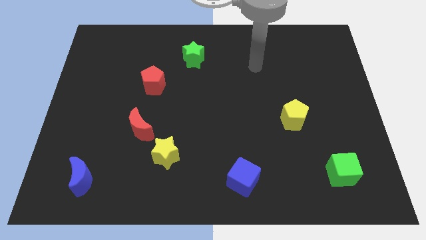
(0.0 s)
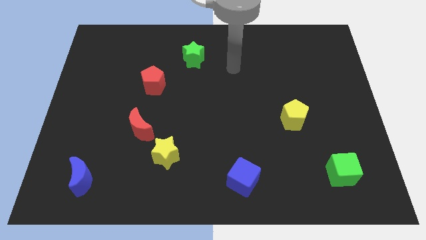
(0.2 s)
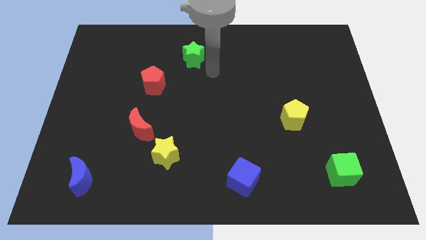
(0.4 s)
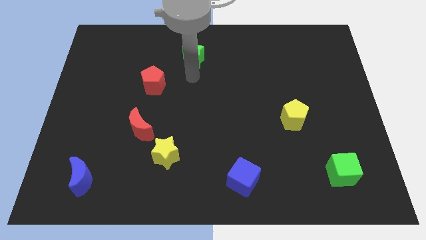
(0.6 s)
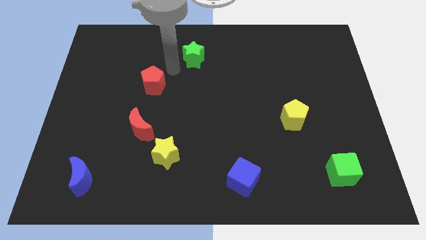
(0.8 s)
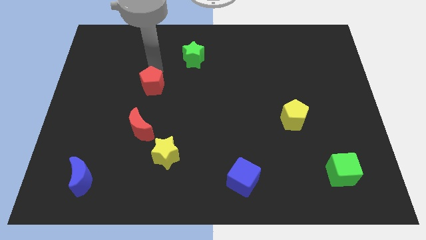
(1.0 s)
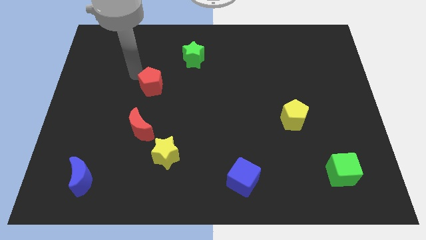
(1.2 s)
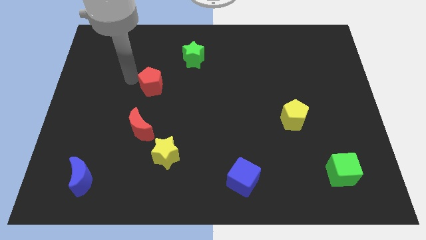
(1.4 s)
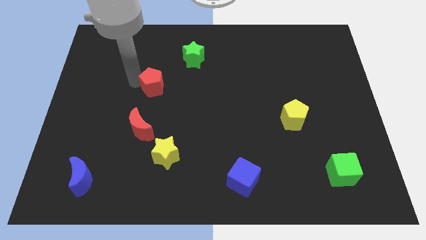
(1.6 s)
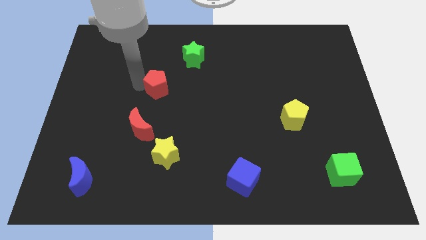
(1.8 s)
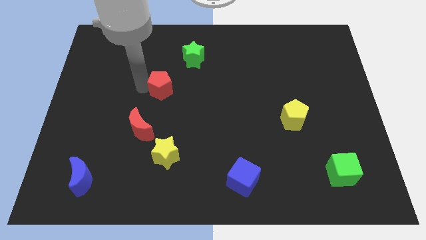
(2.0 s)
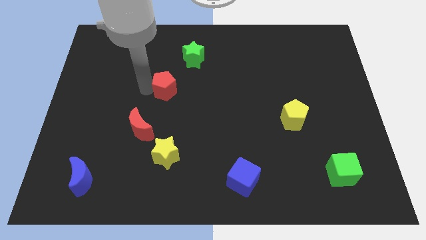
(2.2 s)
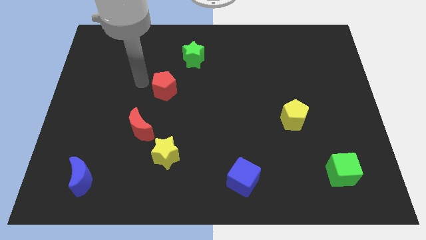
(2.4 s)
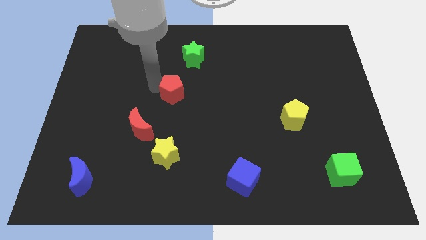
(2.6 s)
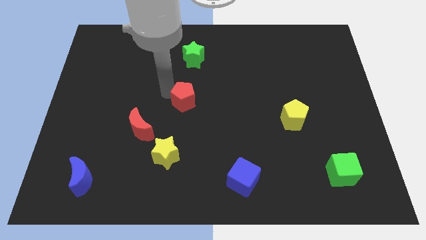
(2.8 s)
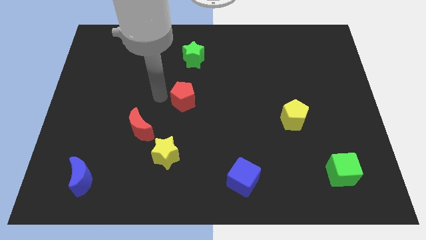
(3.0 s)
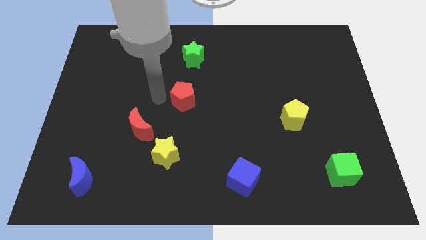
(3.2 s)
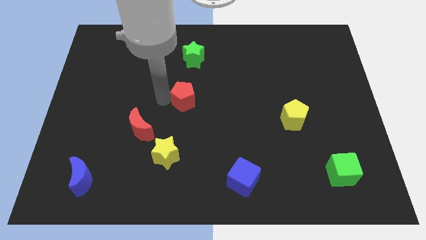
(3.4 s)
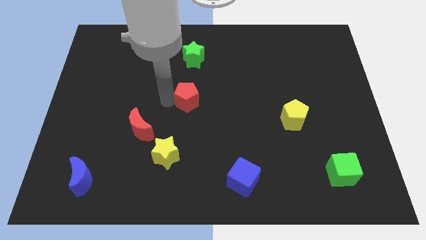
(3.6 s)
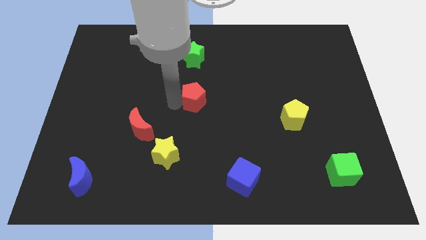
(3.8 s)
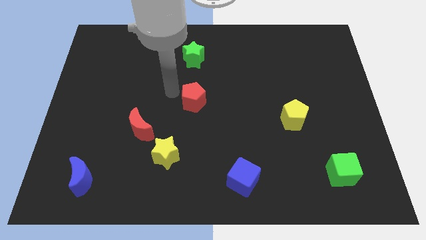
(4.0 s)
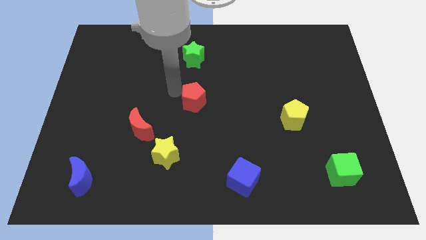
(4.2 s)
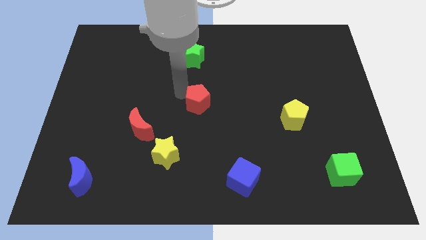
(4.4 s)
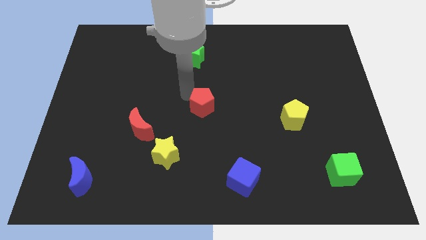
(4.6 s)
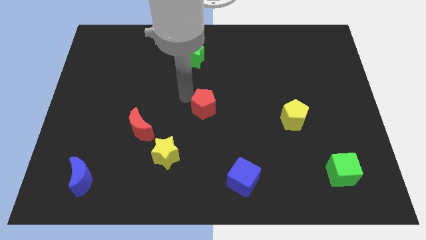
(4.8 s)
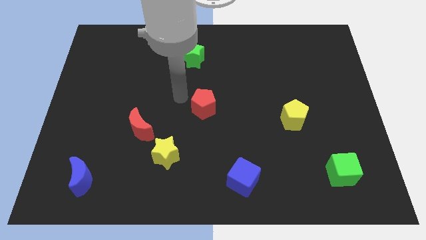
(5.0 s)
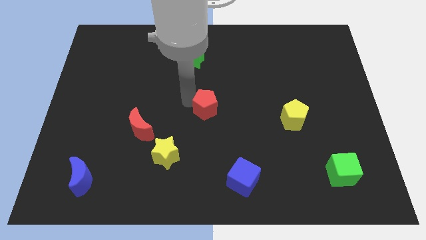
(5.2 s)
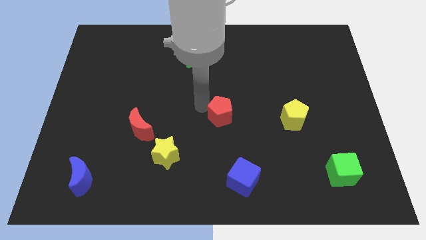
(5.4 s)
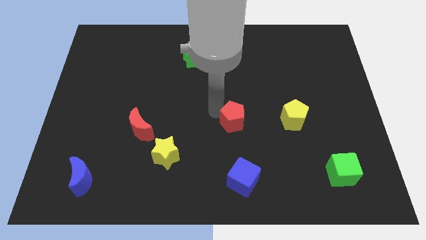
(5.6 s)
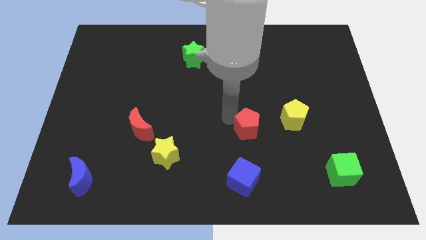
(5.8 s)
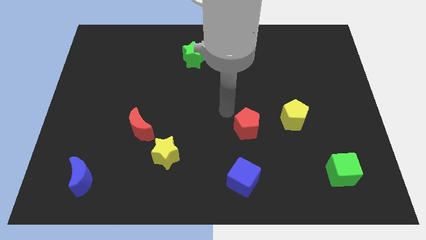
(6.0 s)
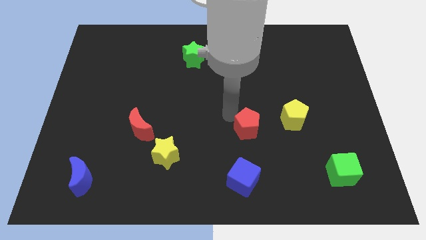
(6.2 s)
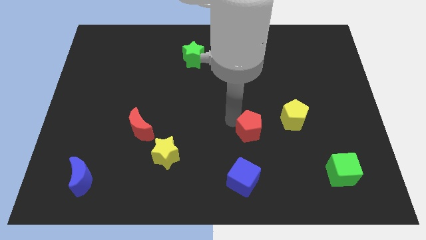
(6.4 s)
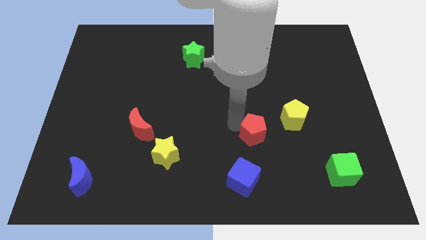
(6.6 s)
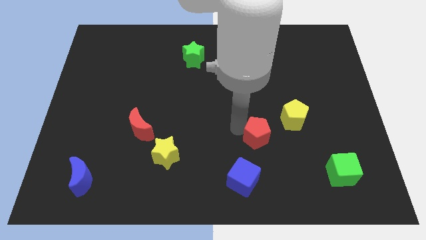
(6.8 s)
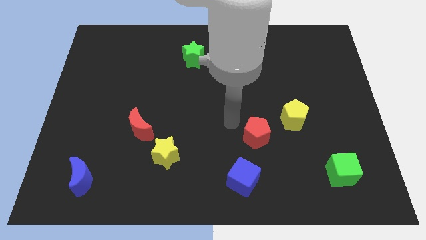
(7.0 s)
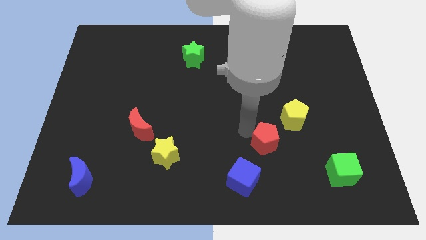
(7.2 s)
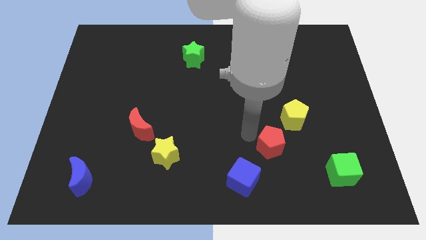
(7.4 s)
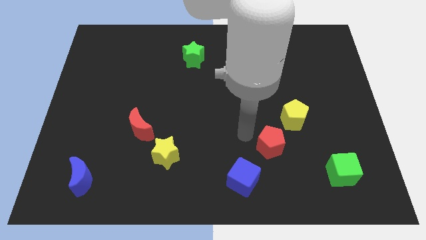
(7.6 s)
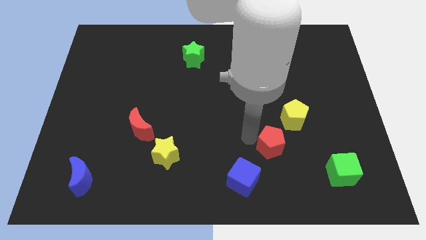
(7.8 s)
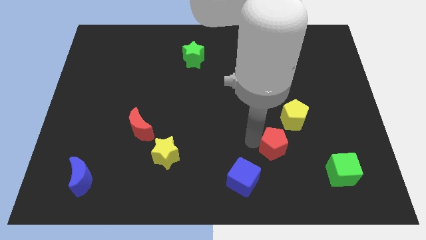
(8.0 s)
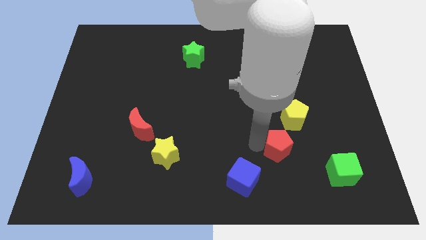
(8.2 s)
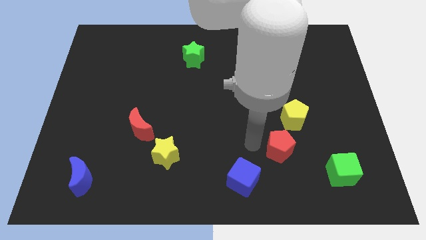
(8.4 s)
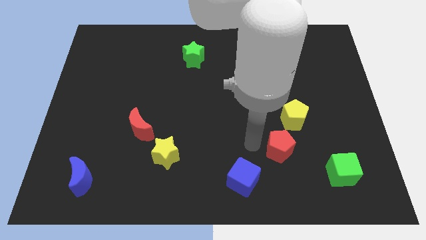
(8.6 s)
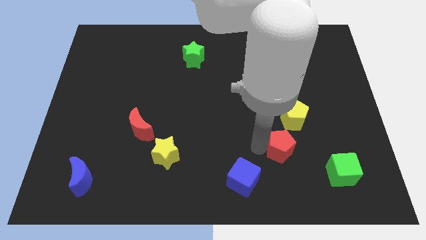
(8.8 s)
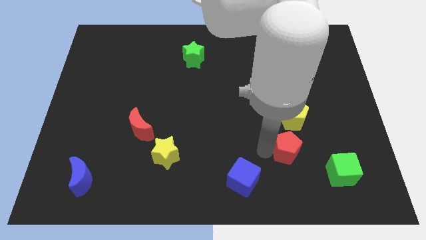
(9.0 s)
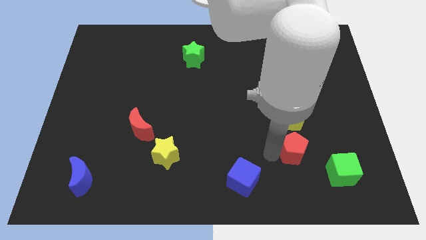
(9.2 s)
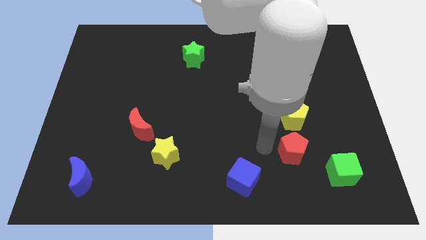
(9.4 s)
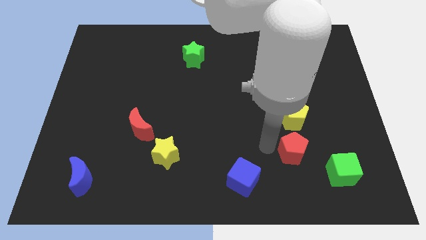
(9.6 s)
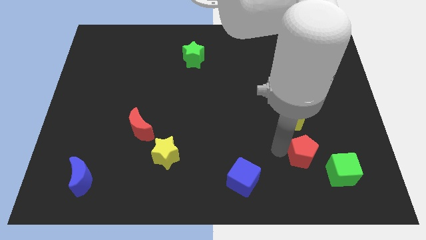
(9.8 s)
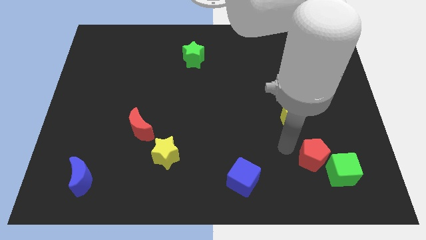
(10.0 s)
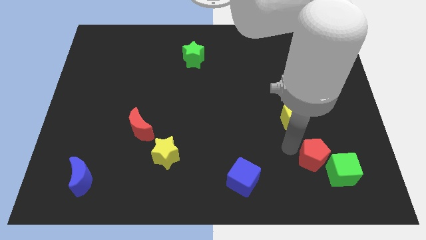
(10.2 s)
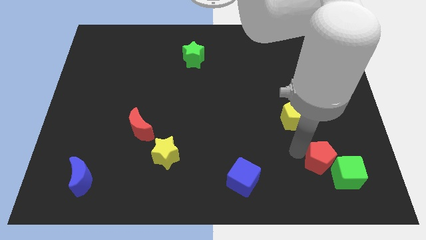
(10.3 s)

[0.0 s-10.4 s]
put the red pentagon to the green cube

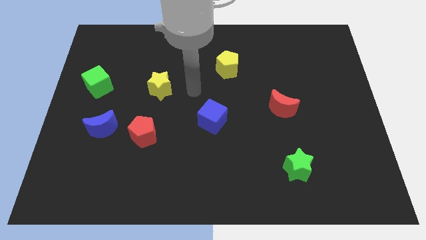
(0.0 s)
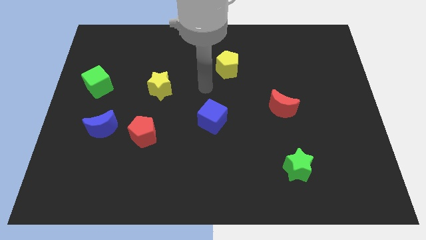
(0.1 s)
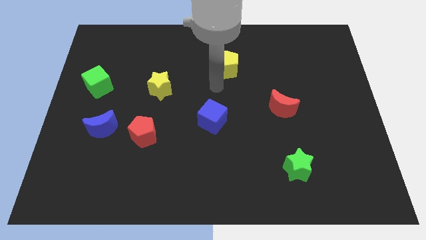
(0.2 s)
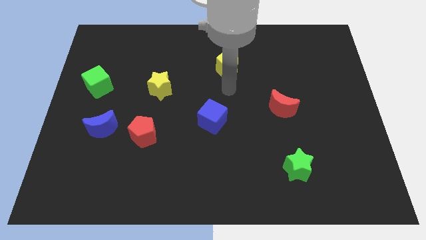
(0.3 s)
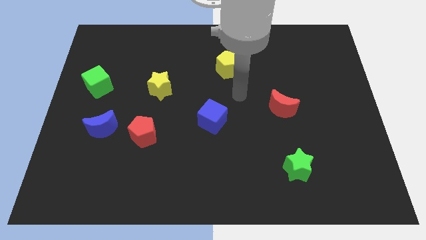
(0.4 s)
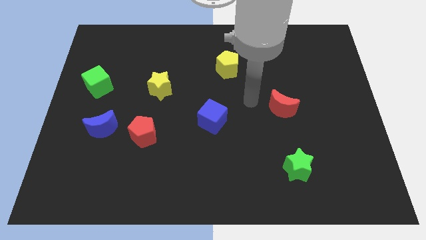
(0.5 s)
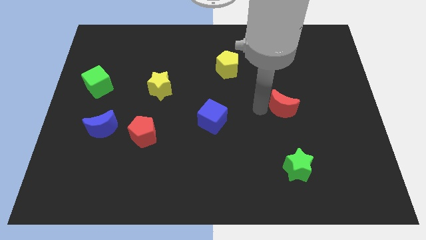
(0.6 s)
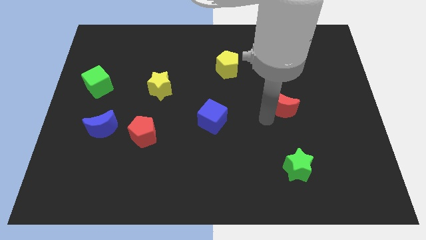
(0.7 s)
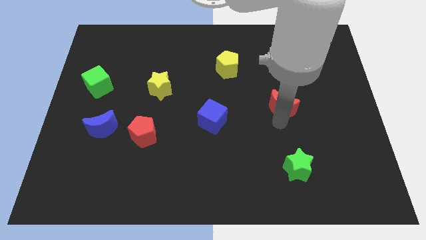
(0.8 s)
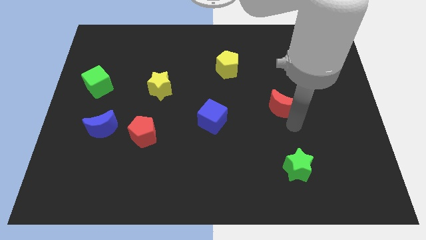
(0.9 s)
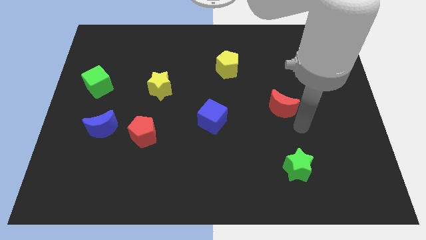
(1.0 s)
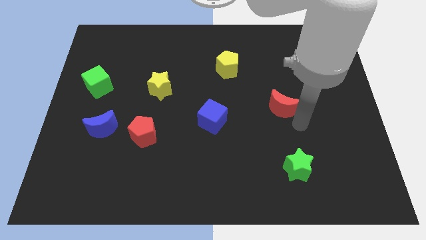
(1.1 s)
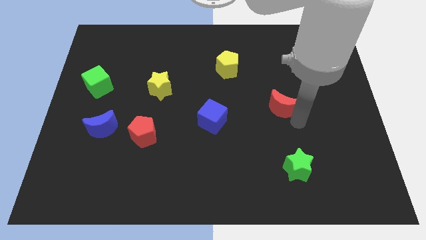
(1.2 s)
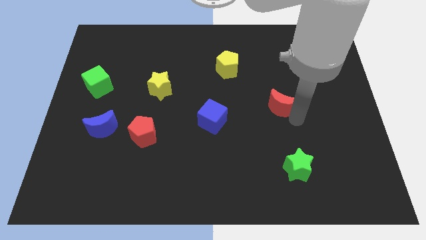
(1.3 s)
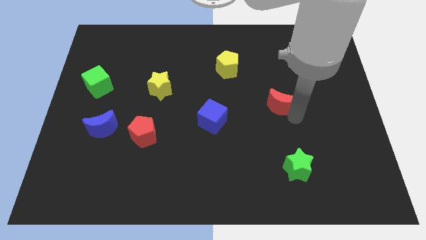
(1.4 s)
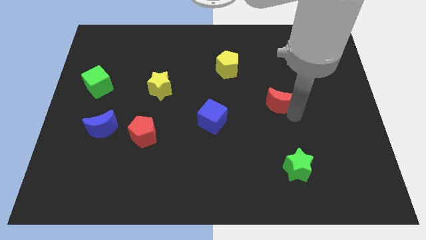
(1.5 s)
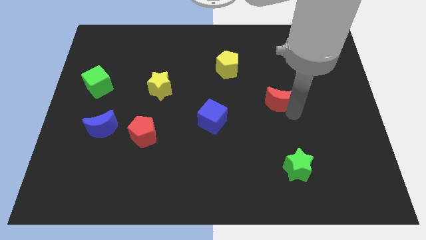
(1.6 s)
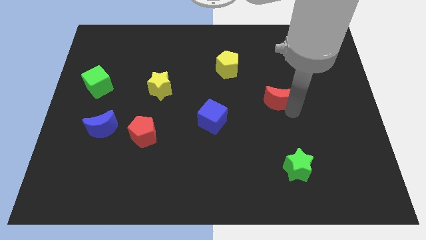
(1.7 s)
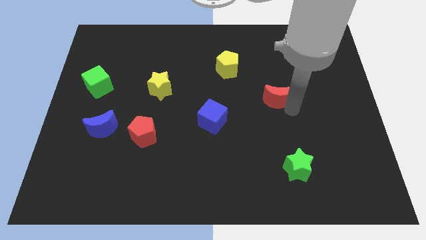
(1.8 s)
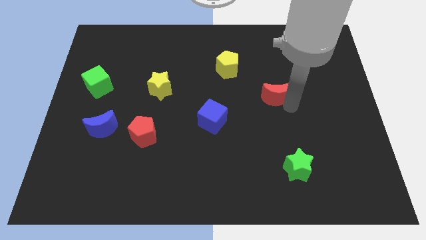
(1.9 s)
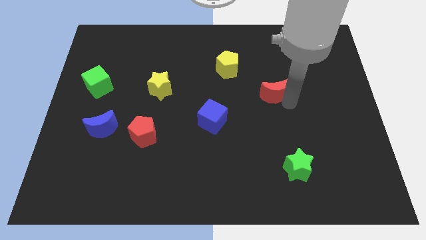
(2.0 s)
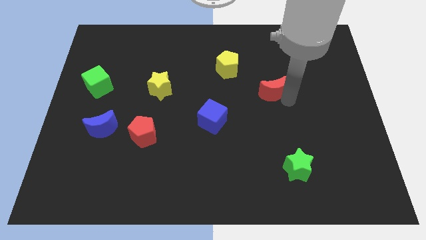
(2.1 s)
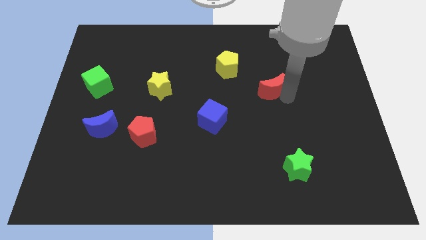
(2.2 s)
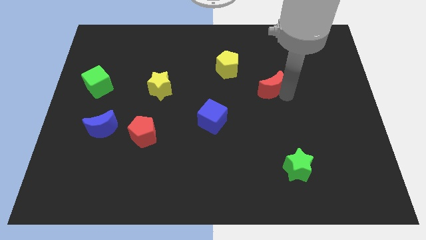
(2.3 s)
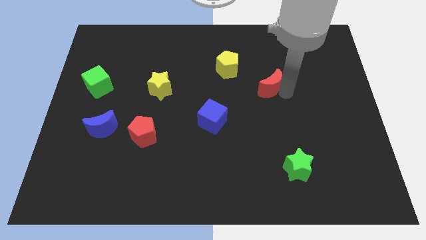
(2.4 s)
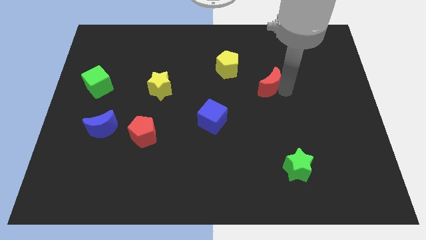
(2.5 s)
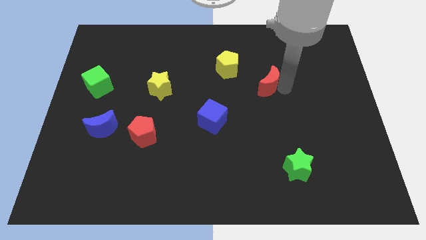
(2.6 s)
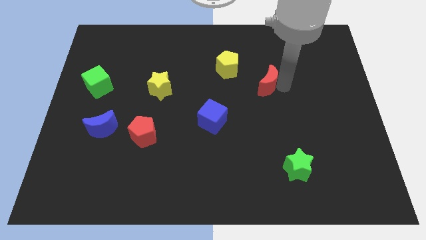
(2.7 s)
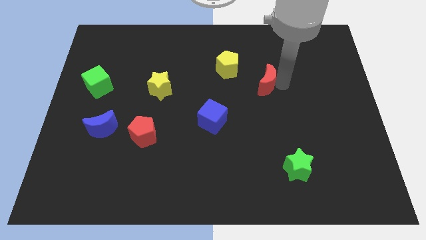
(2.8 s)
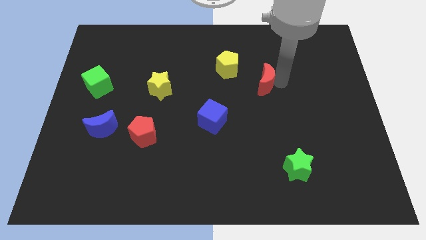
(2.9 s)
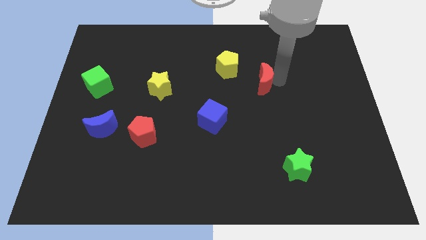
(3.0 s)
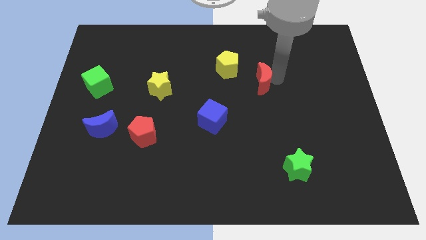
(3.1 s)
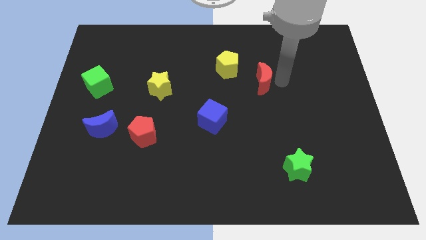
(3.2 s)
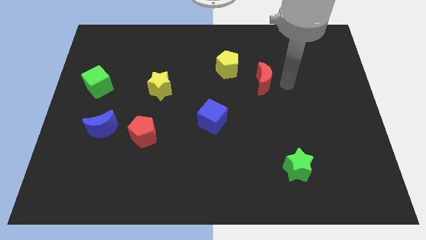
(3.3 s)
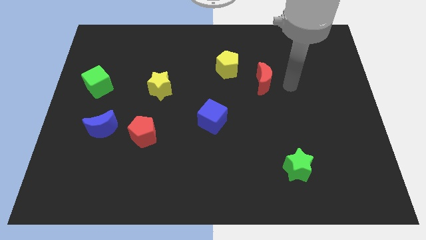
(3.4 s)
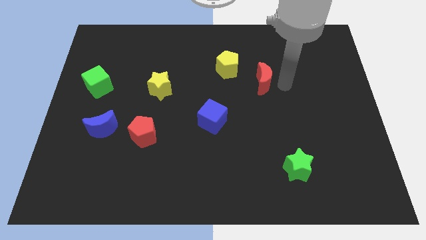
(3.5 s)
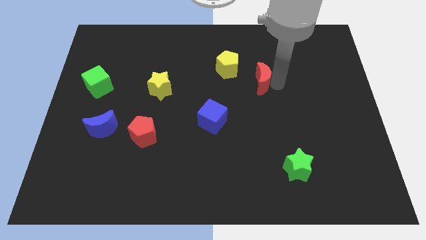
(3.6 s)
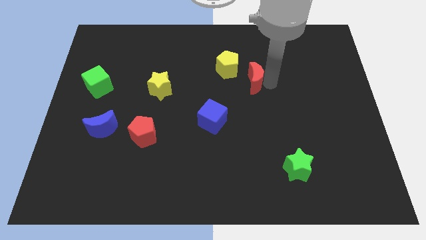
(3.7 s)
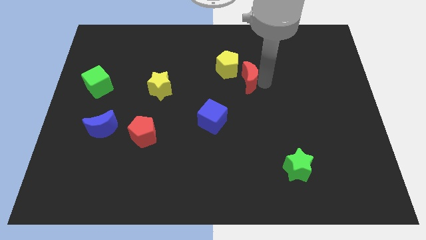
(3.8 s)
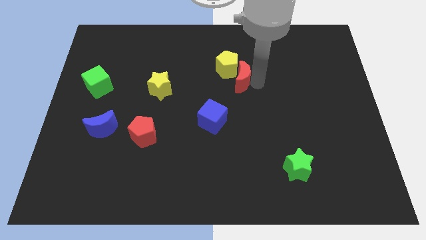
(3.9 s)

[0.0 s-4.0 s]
put the red moon towards the yellow pentagon
